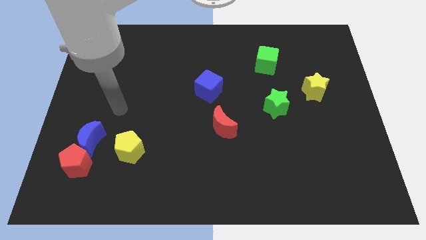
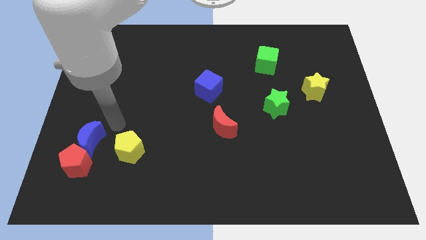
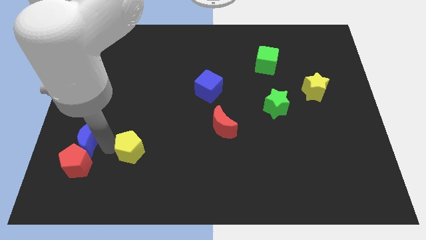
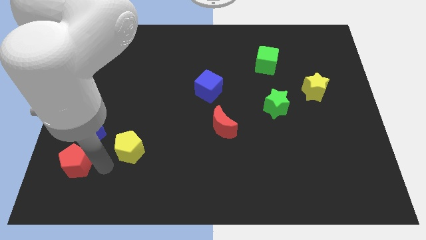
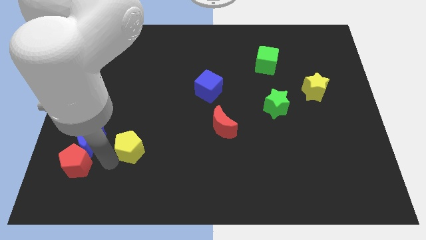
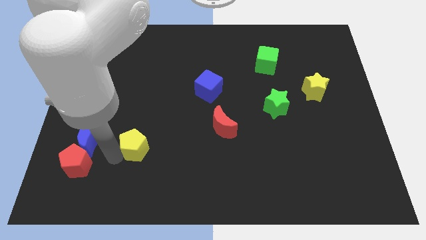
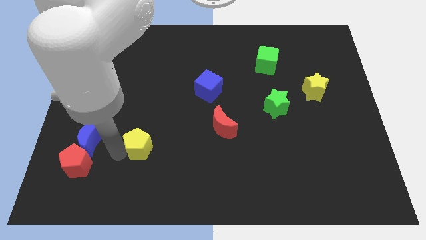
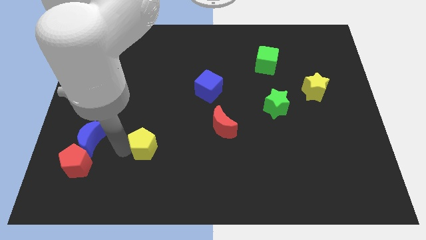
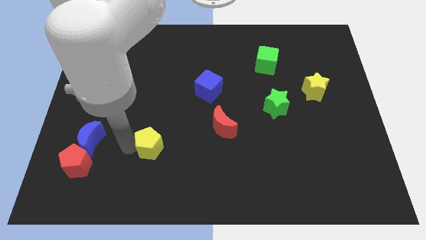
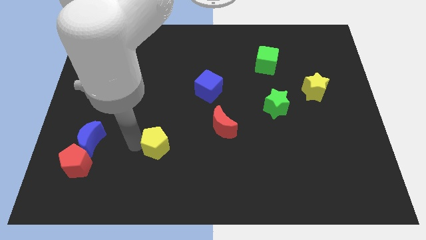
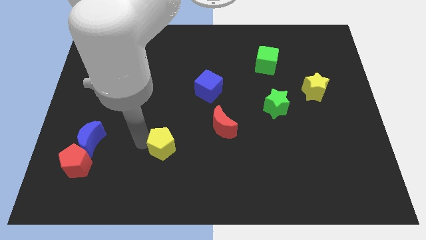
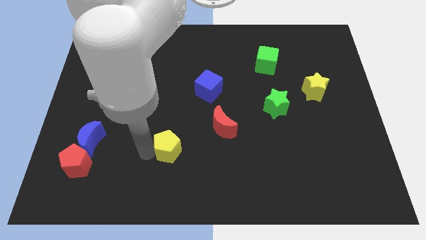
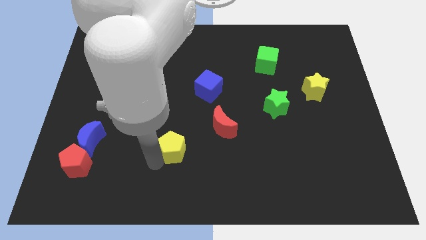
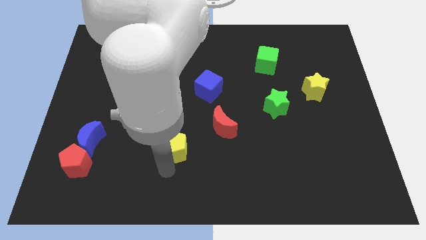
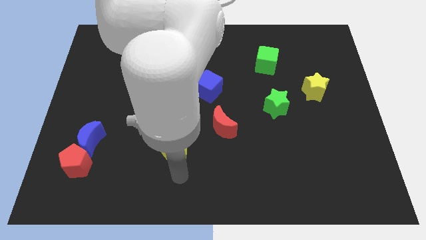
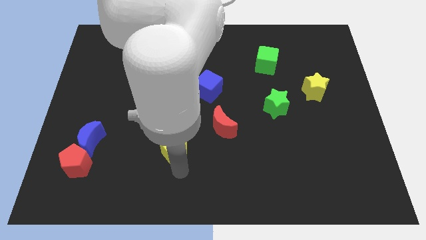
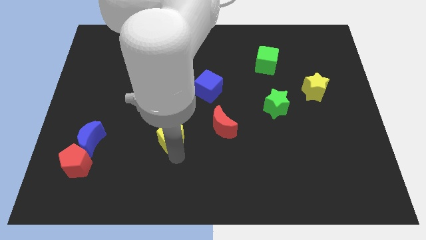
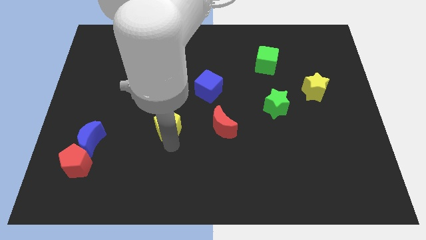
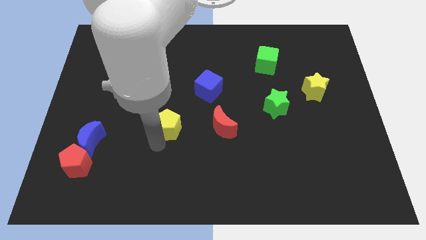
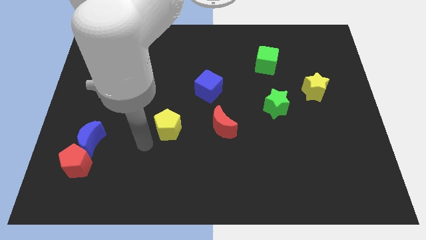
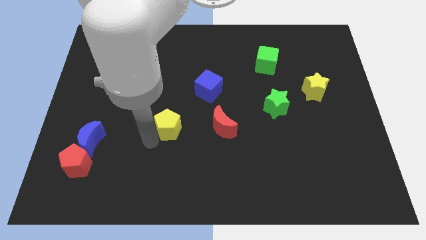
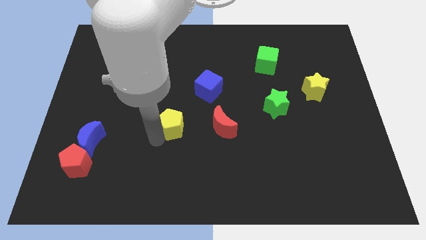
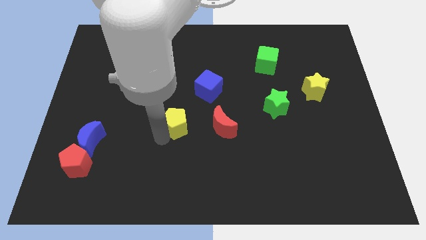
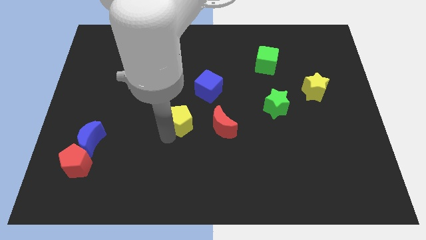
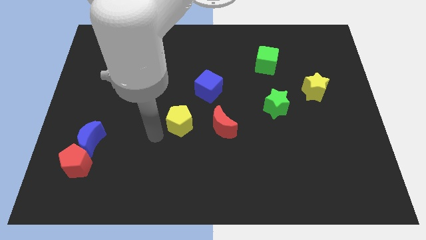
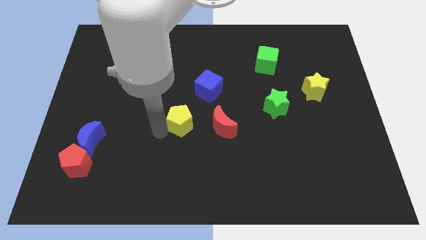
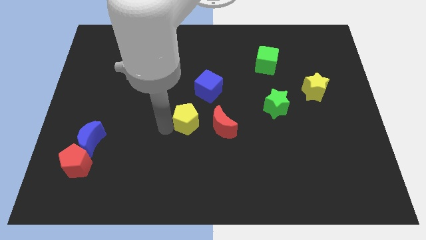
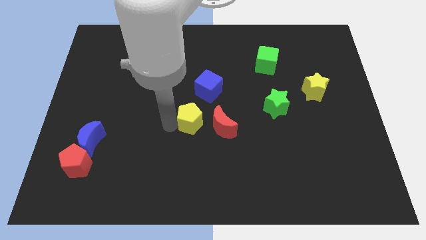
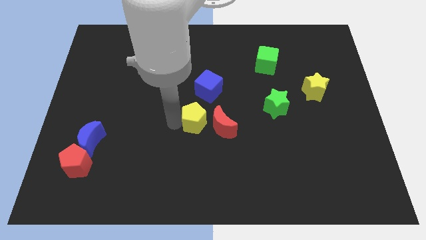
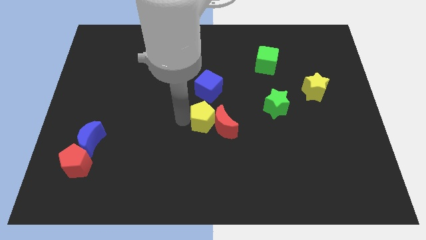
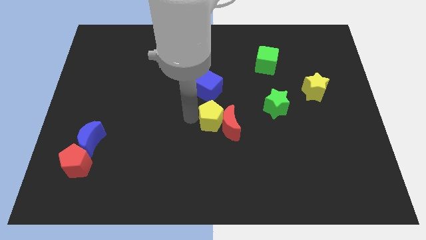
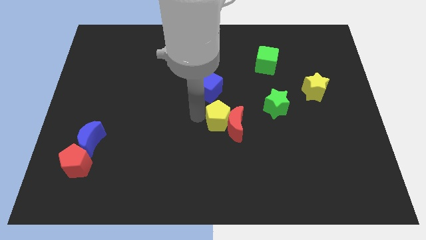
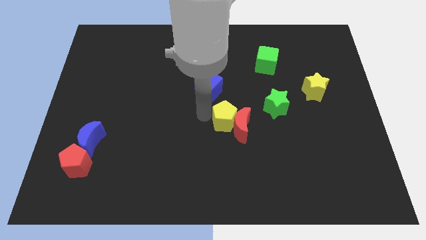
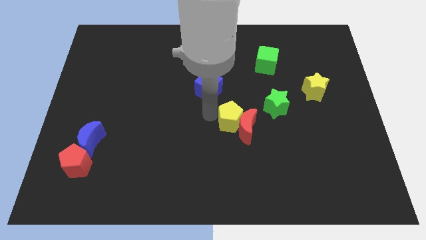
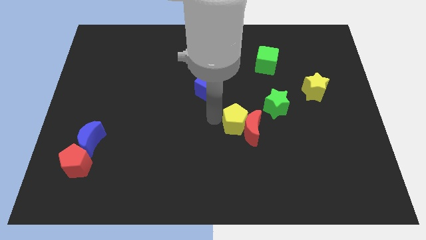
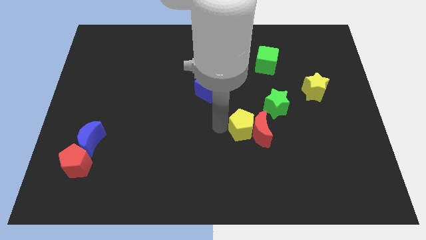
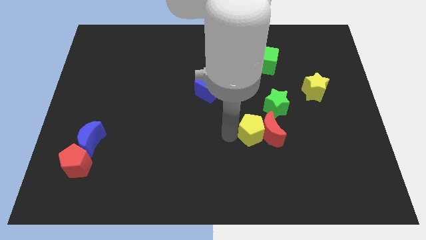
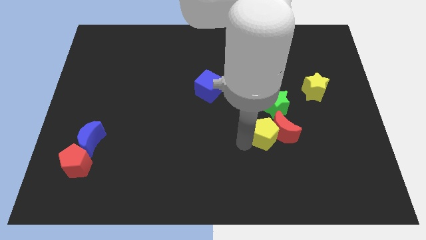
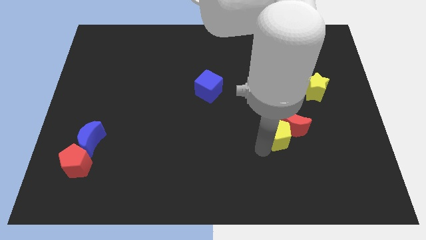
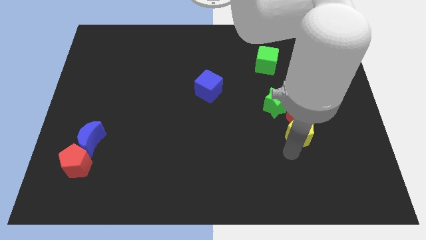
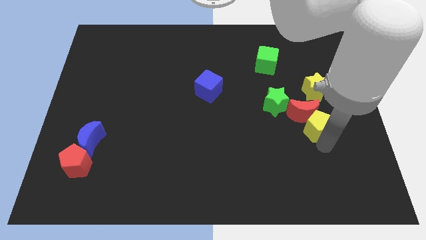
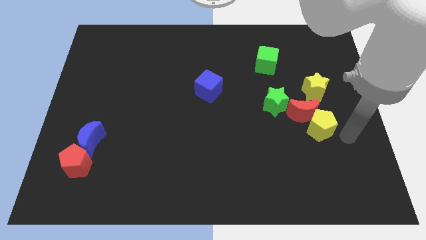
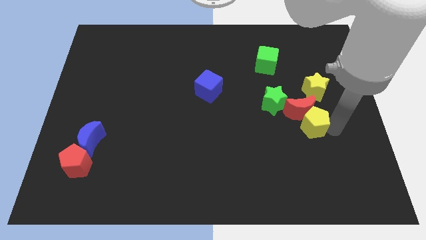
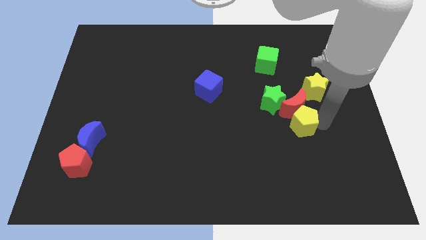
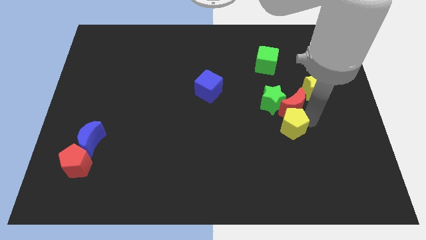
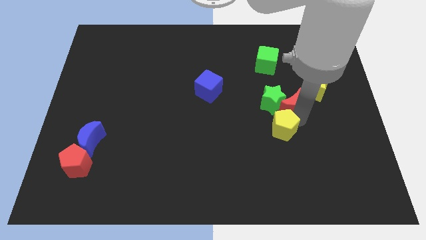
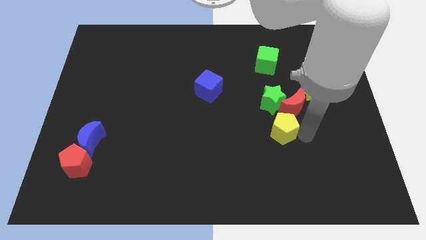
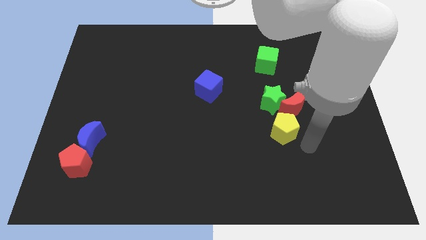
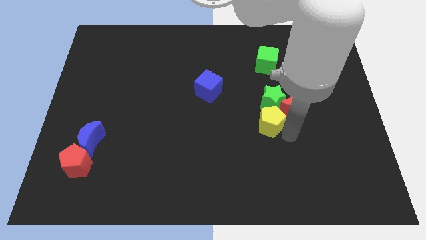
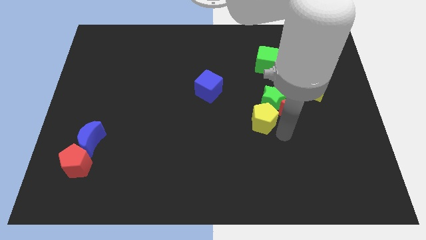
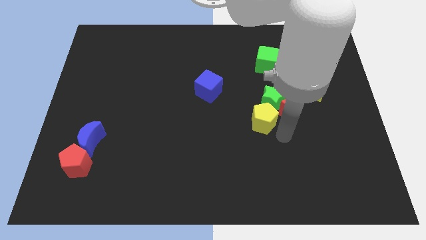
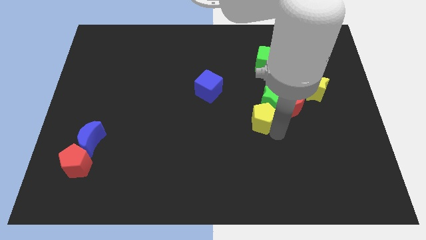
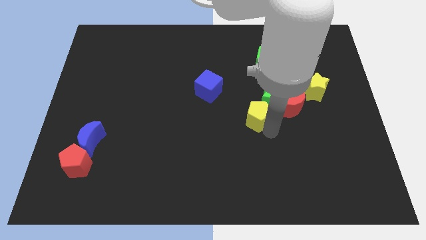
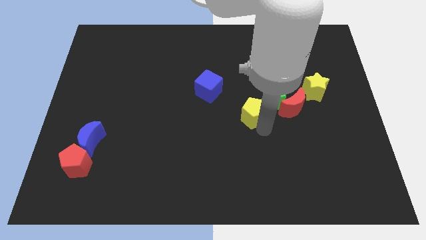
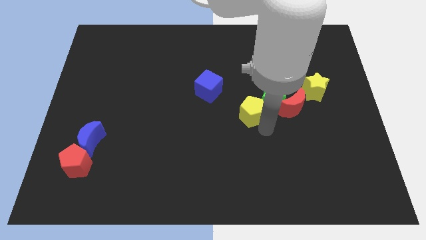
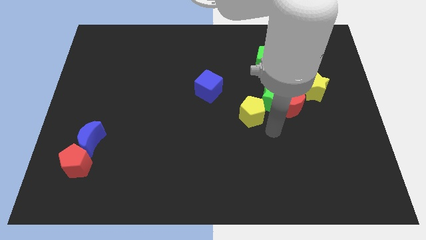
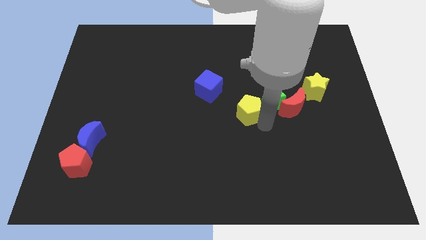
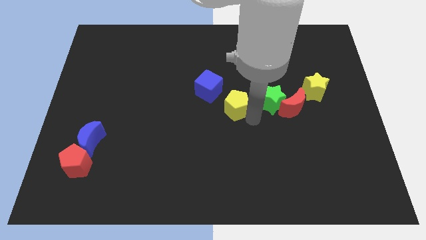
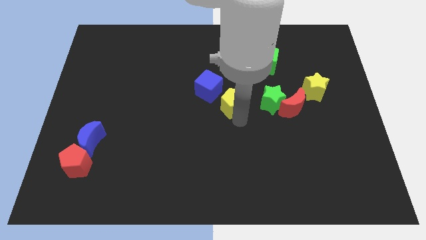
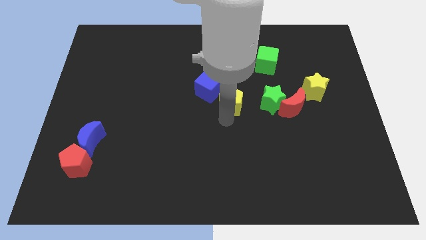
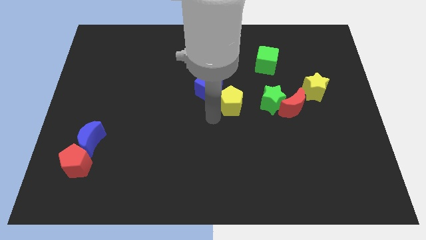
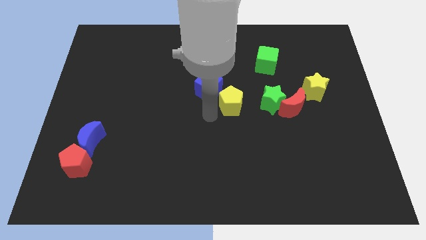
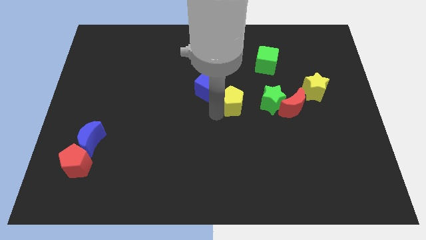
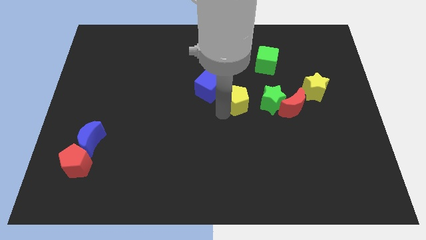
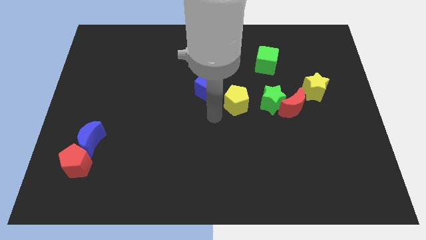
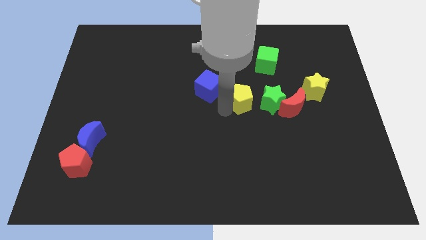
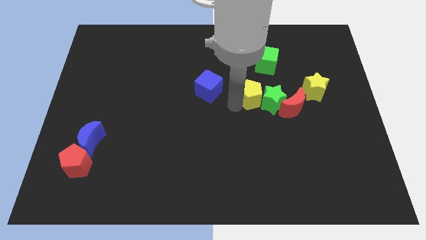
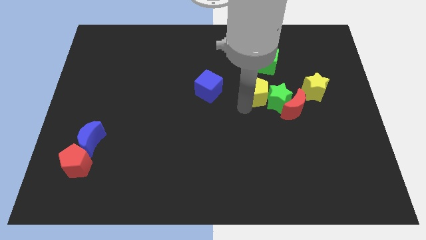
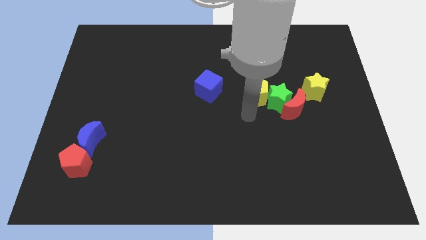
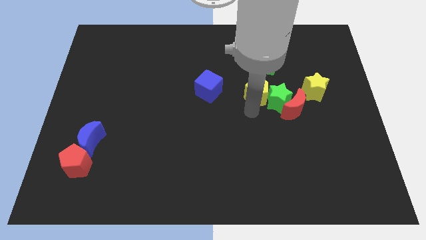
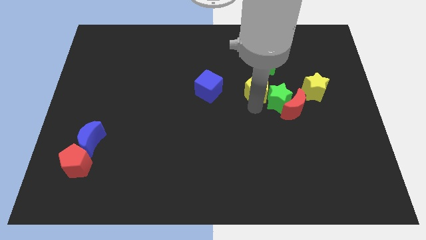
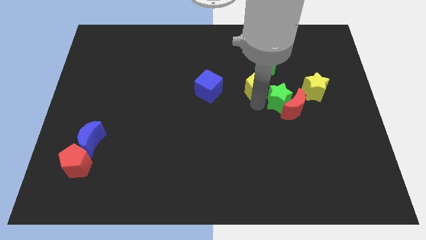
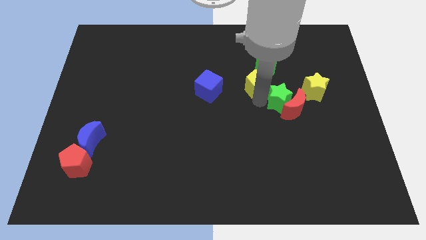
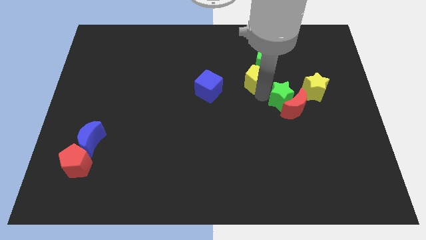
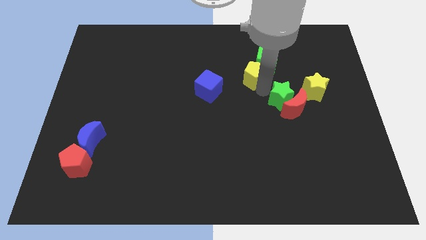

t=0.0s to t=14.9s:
put the yellow pentagon towards the green cube
